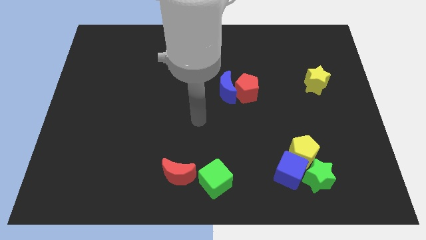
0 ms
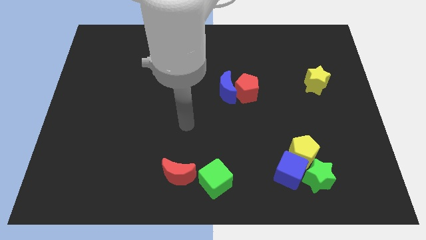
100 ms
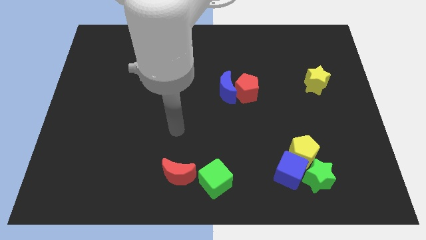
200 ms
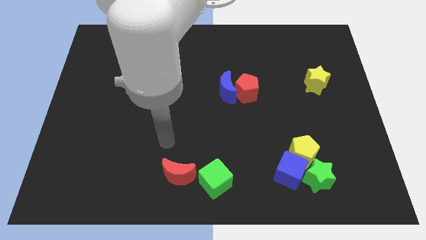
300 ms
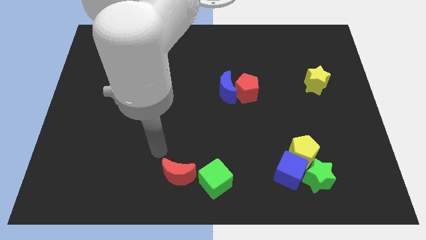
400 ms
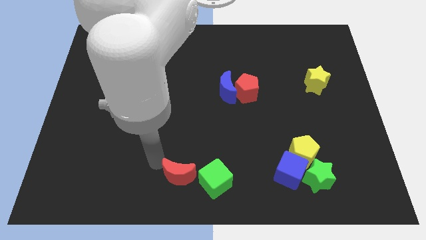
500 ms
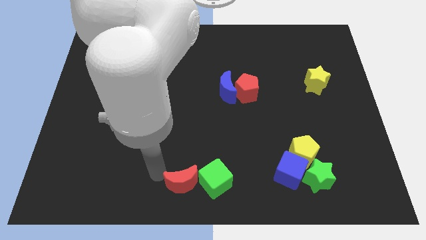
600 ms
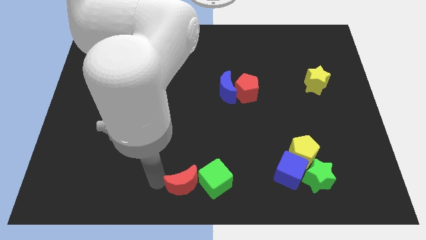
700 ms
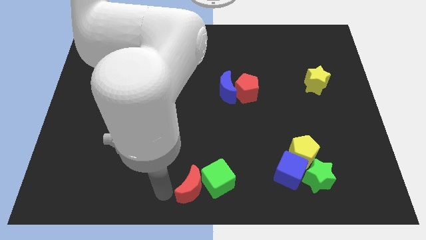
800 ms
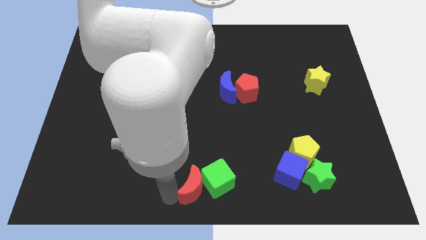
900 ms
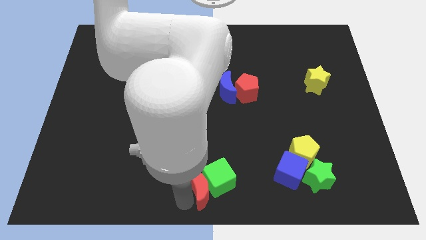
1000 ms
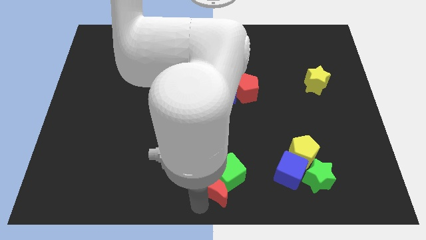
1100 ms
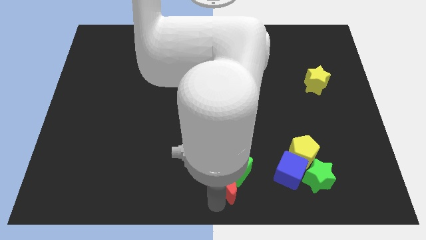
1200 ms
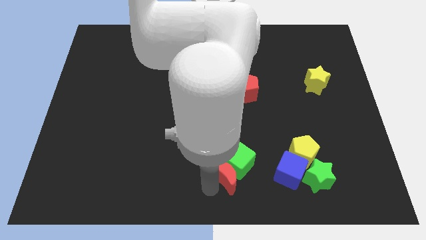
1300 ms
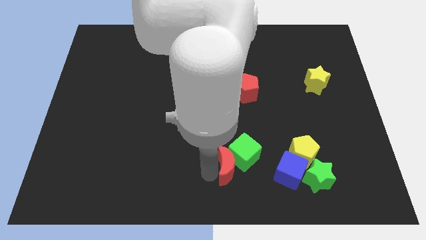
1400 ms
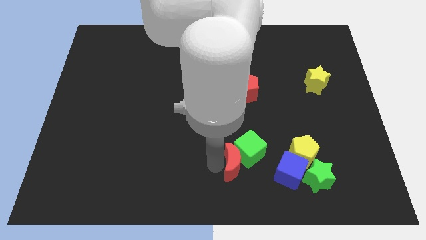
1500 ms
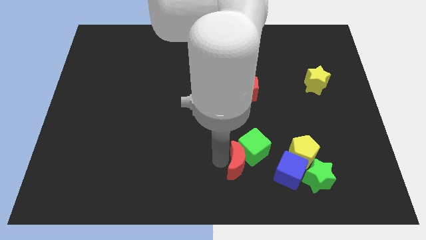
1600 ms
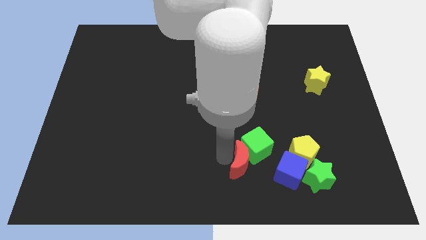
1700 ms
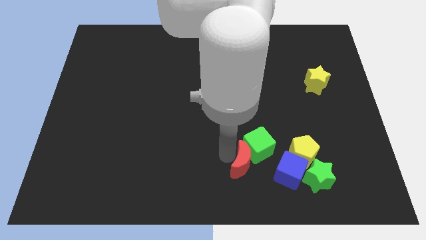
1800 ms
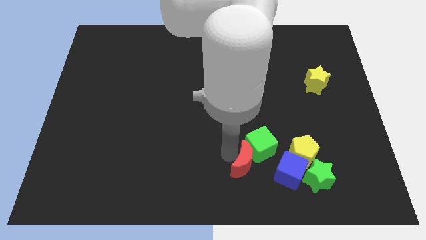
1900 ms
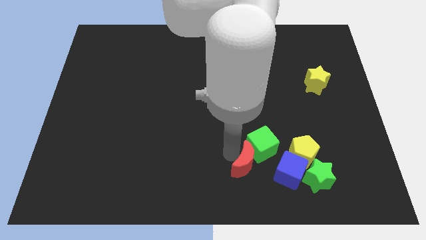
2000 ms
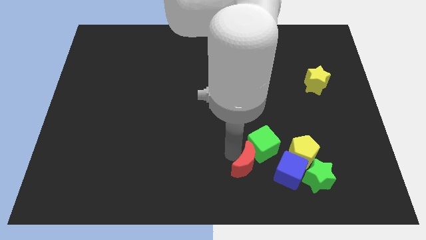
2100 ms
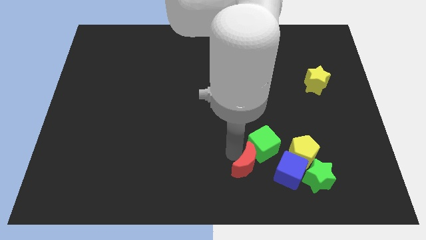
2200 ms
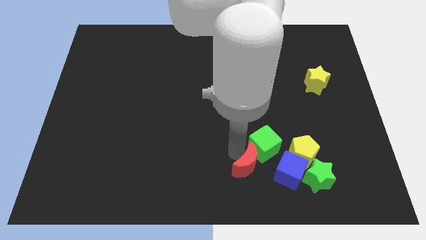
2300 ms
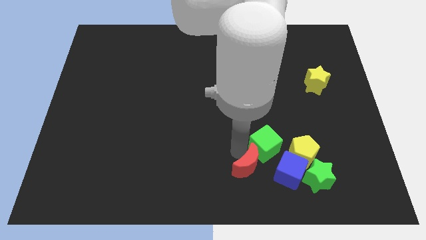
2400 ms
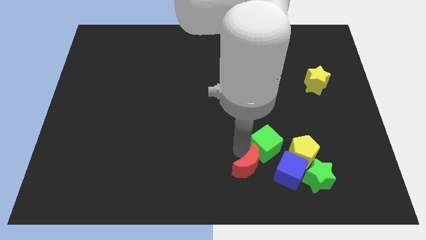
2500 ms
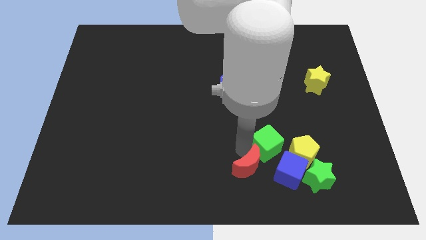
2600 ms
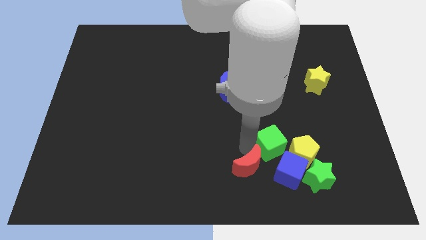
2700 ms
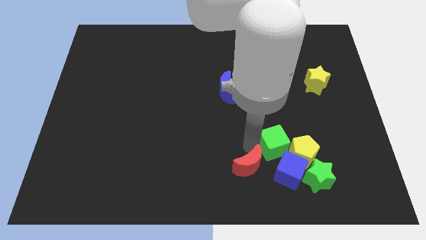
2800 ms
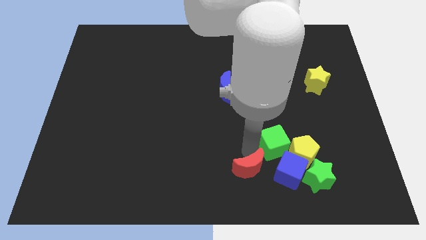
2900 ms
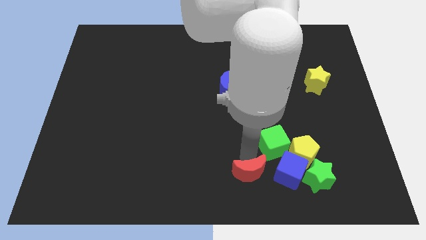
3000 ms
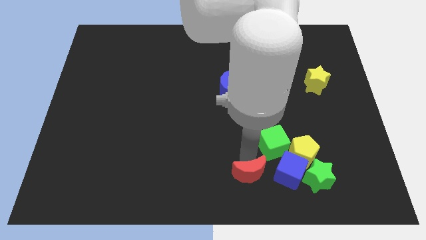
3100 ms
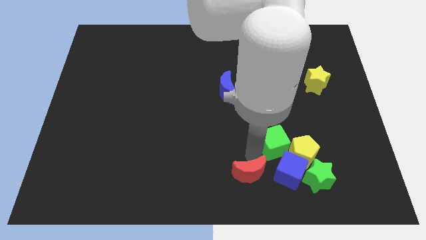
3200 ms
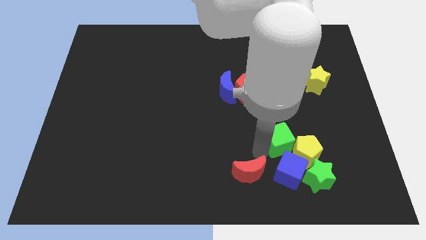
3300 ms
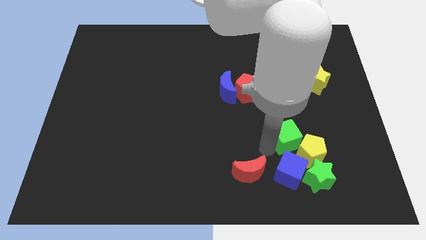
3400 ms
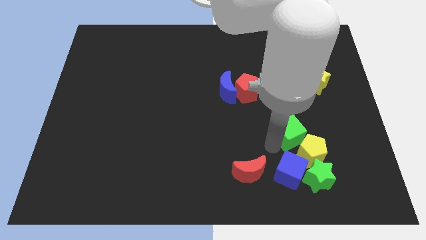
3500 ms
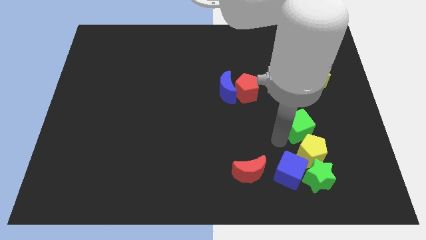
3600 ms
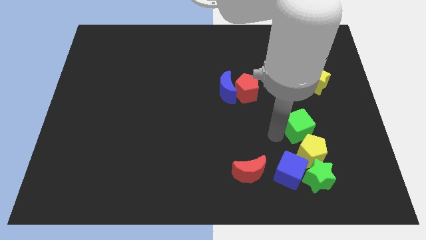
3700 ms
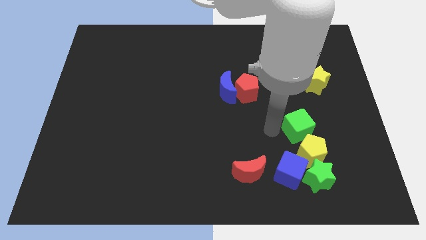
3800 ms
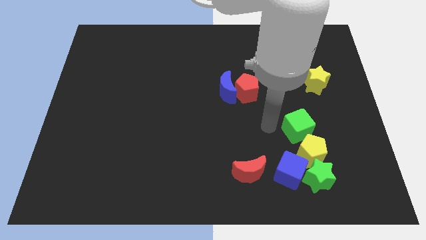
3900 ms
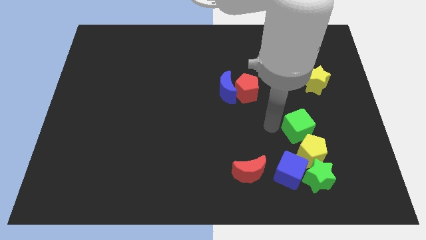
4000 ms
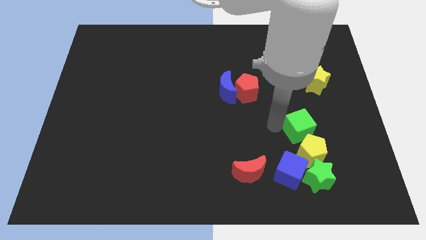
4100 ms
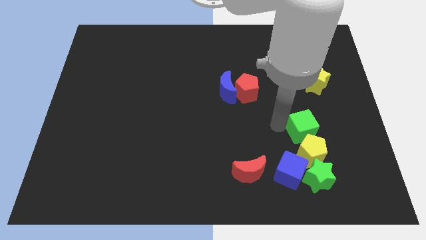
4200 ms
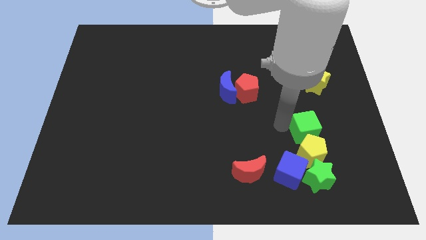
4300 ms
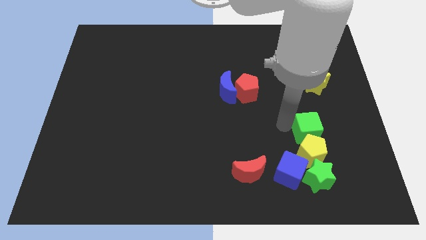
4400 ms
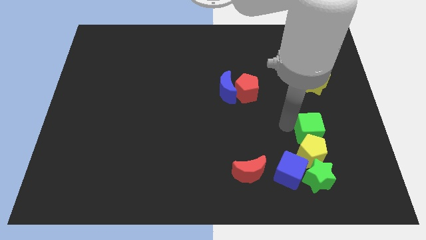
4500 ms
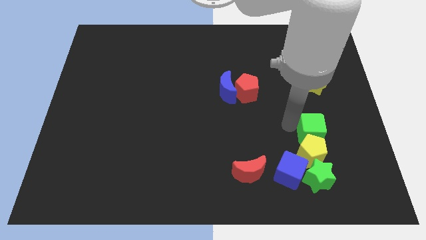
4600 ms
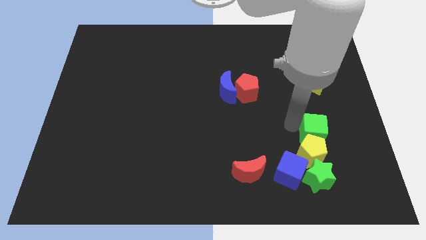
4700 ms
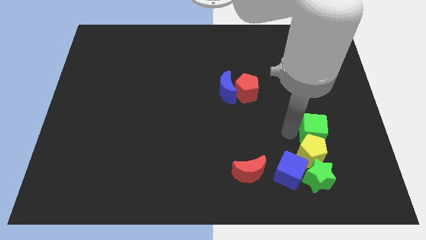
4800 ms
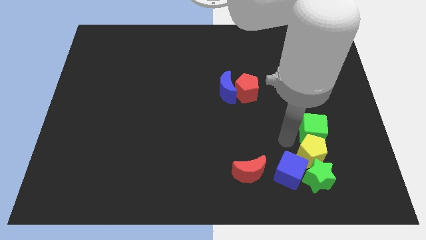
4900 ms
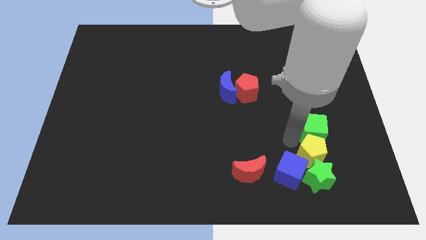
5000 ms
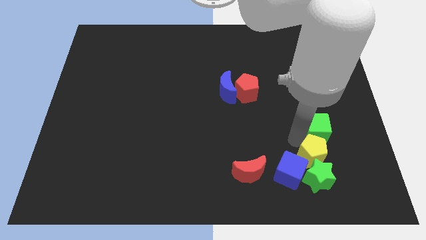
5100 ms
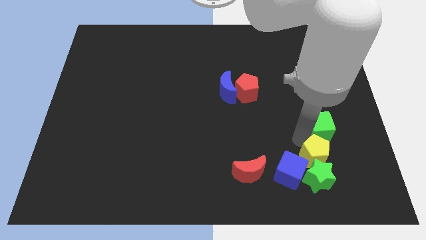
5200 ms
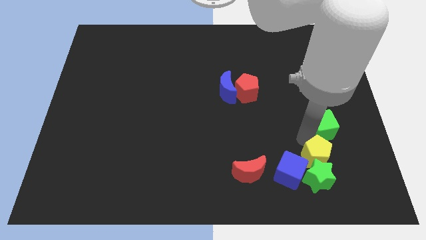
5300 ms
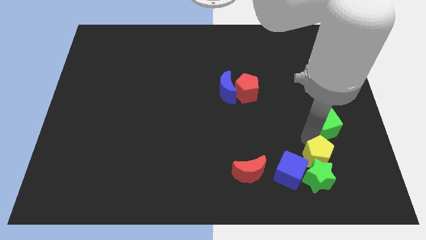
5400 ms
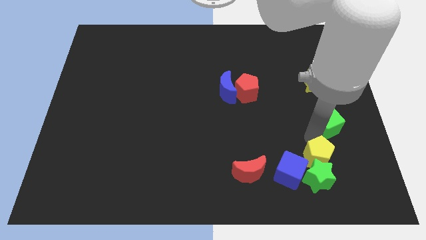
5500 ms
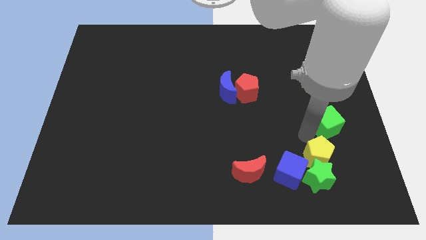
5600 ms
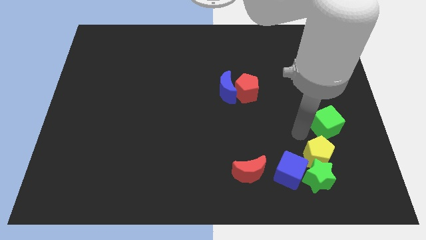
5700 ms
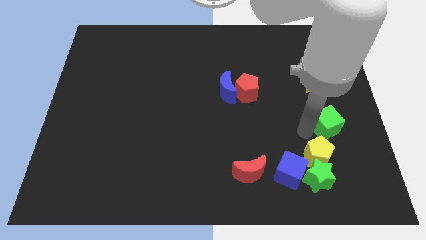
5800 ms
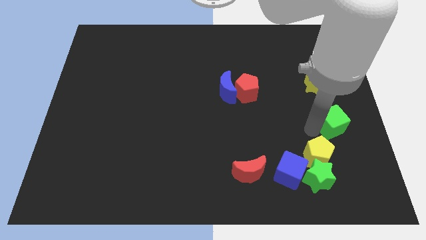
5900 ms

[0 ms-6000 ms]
put the green cube to the right side
